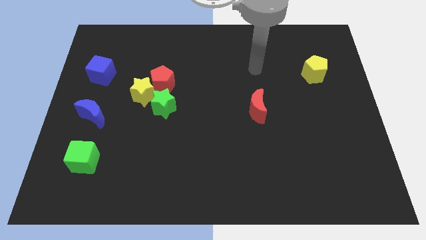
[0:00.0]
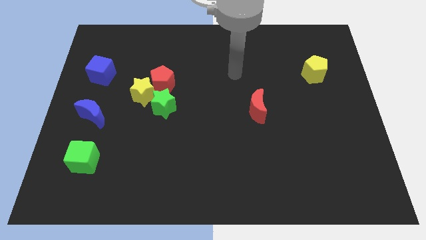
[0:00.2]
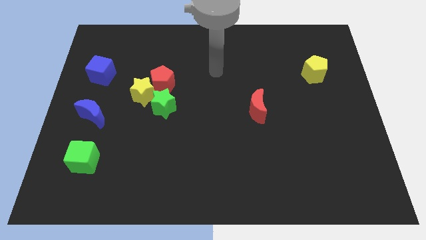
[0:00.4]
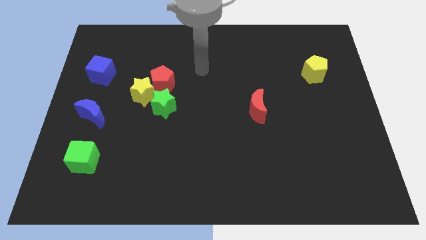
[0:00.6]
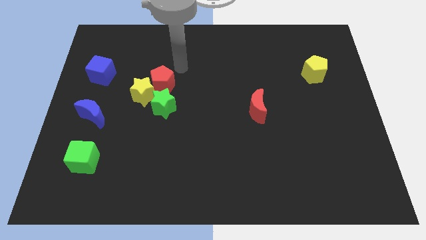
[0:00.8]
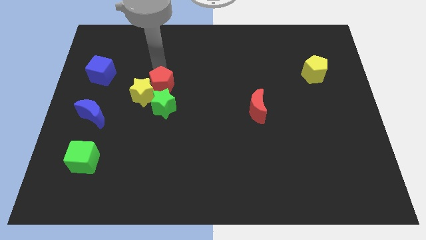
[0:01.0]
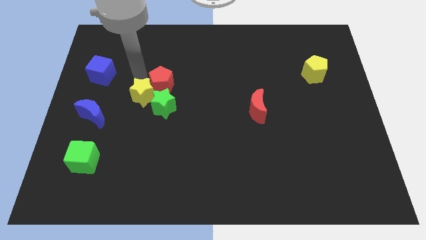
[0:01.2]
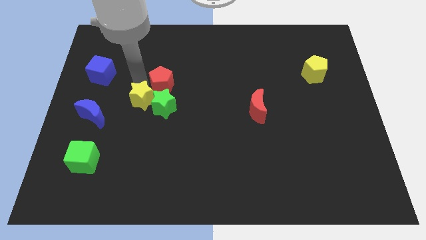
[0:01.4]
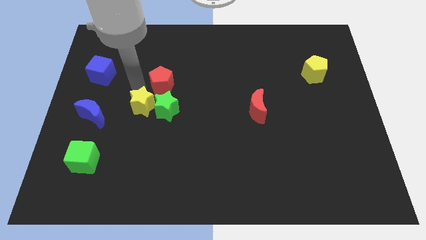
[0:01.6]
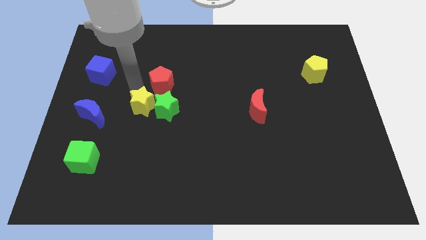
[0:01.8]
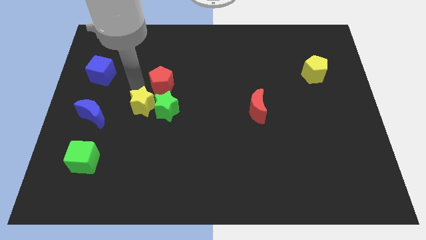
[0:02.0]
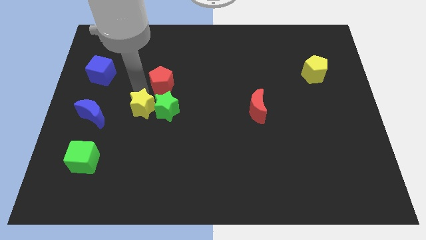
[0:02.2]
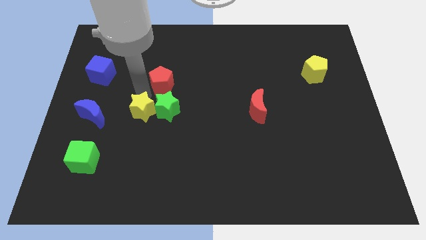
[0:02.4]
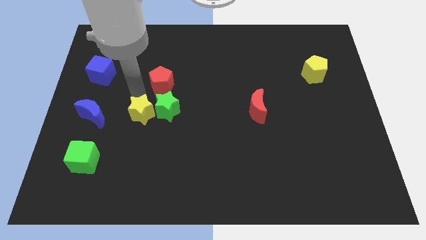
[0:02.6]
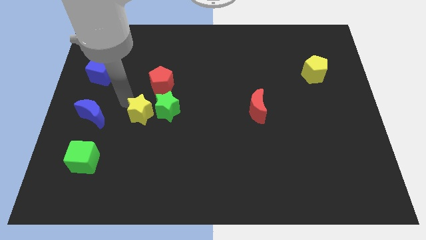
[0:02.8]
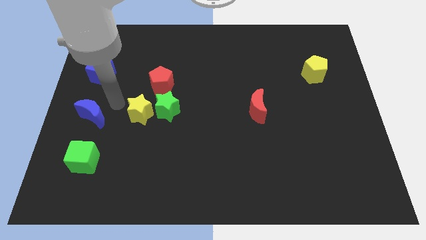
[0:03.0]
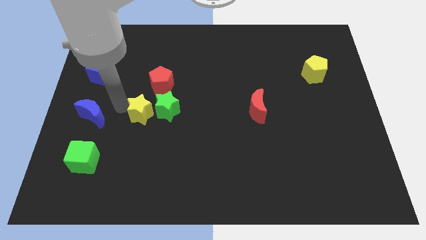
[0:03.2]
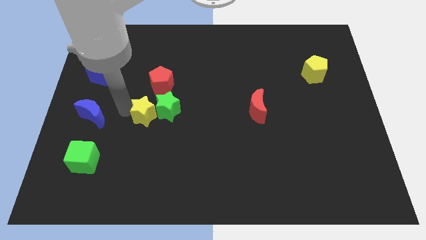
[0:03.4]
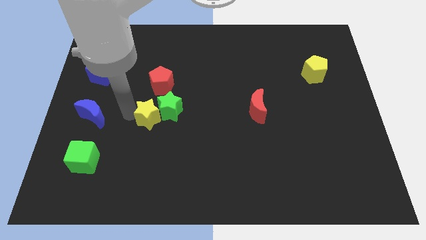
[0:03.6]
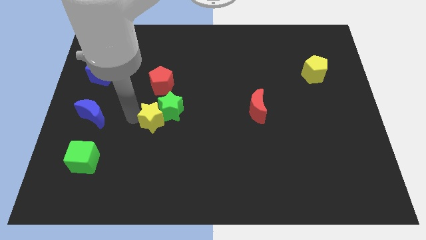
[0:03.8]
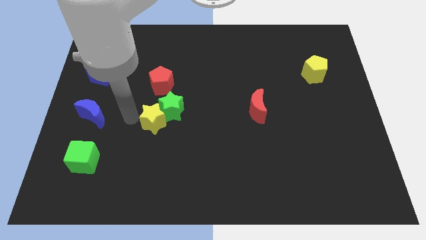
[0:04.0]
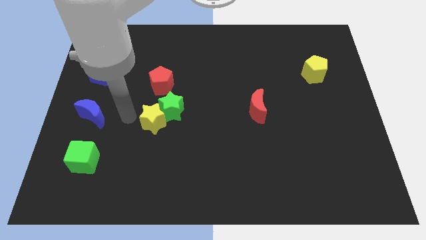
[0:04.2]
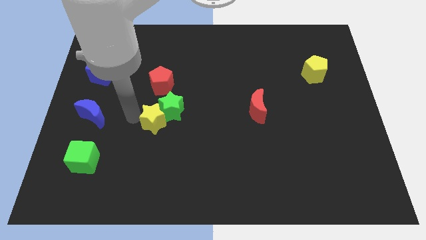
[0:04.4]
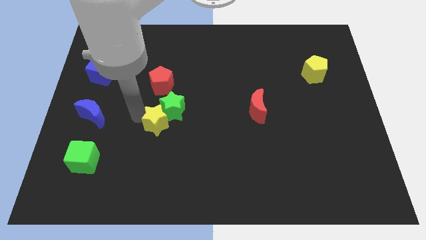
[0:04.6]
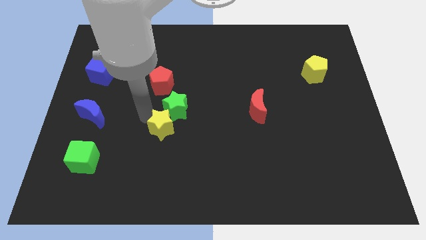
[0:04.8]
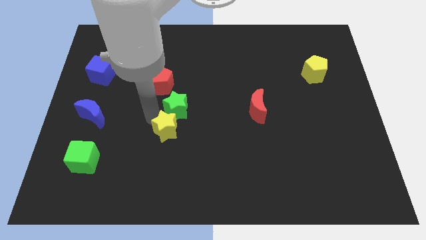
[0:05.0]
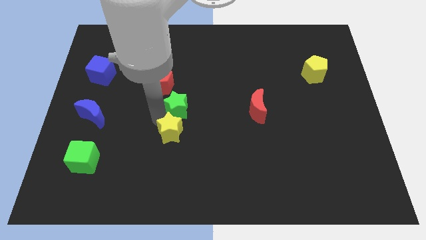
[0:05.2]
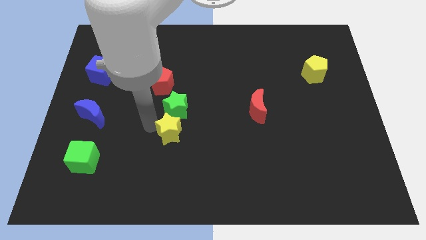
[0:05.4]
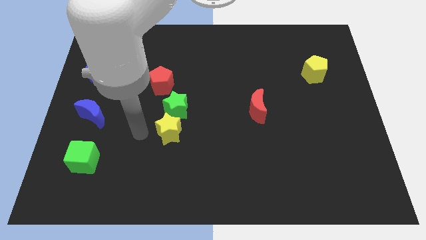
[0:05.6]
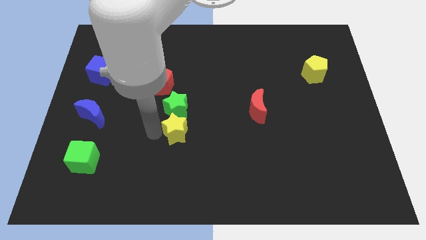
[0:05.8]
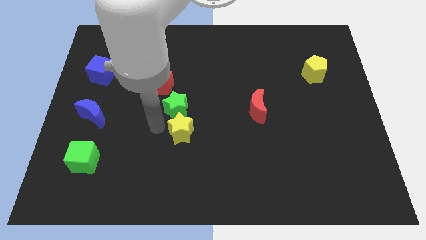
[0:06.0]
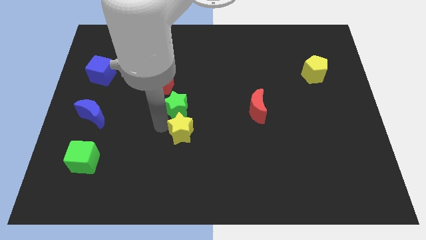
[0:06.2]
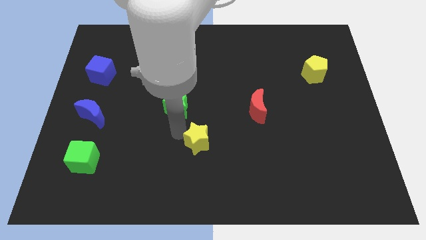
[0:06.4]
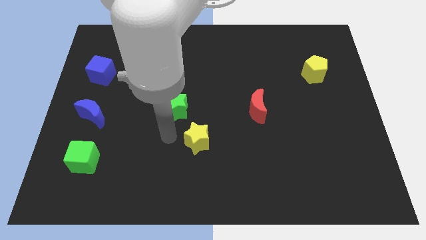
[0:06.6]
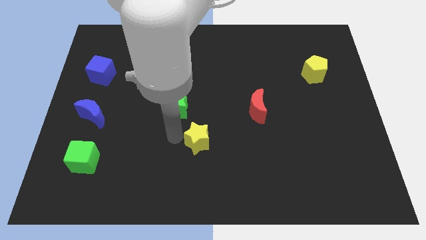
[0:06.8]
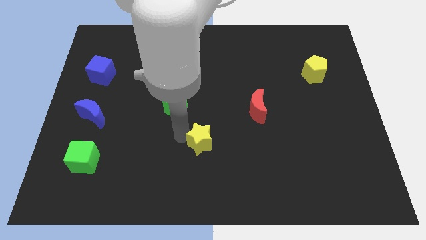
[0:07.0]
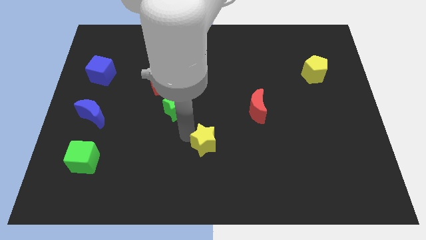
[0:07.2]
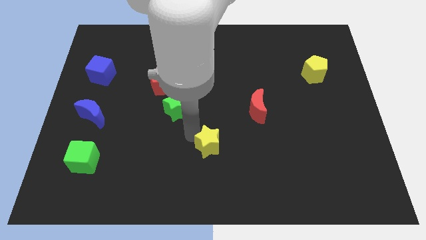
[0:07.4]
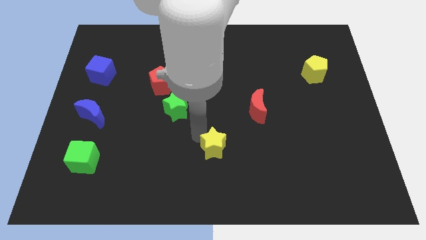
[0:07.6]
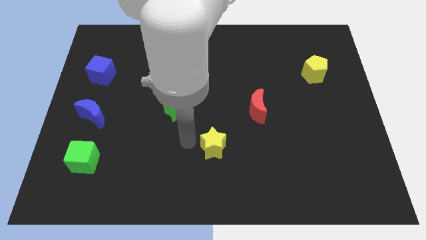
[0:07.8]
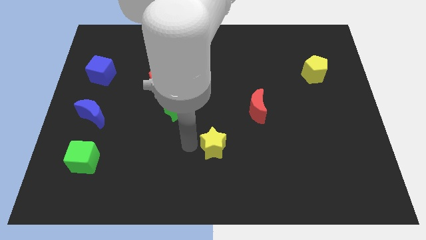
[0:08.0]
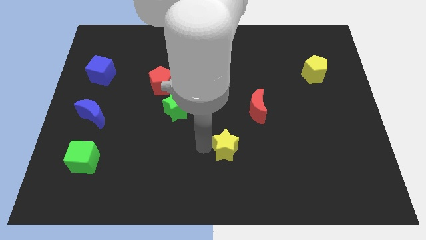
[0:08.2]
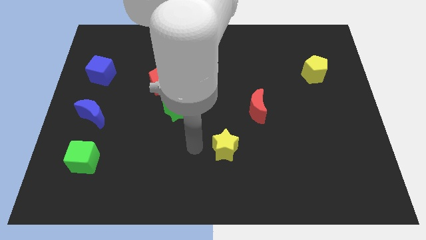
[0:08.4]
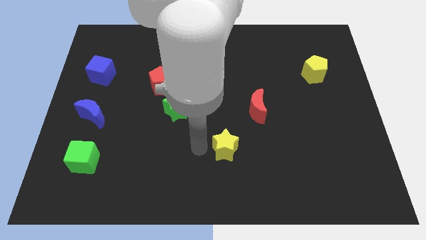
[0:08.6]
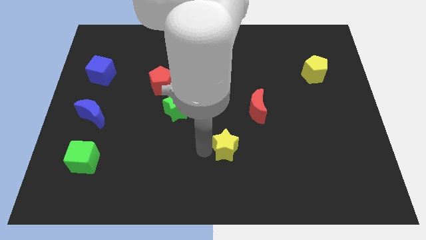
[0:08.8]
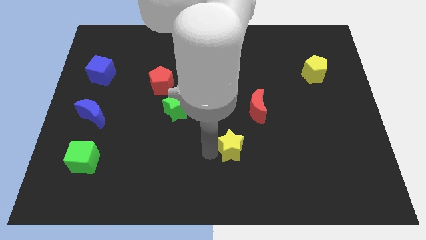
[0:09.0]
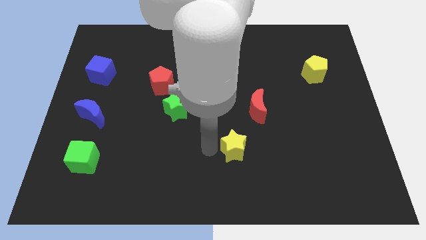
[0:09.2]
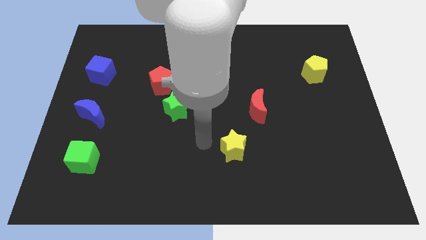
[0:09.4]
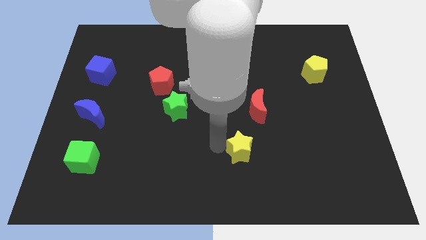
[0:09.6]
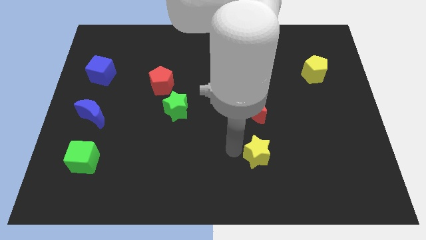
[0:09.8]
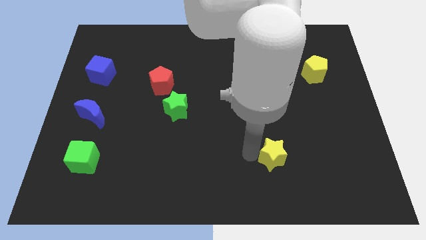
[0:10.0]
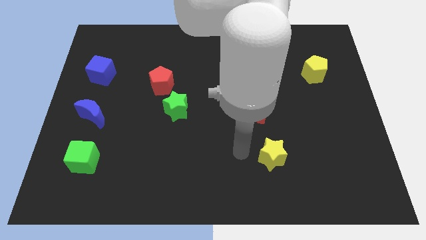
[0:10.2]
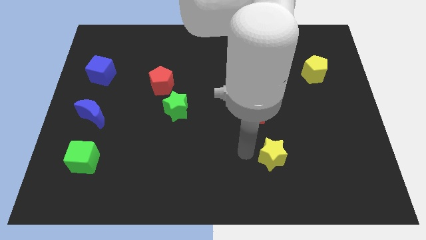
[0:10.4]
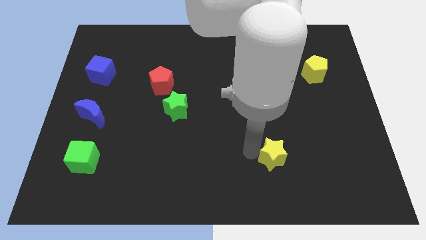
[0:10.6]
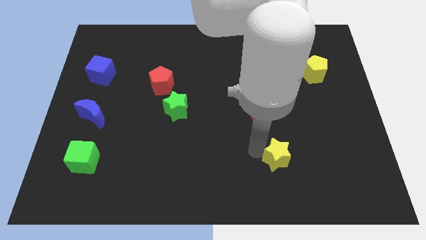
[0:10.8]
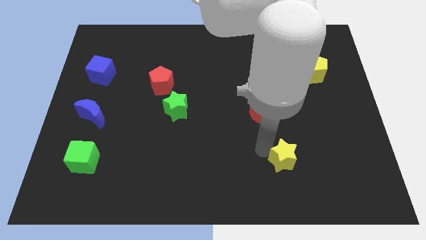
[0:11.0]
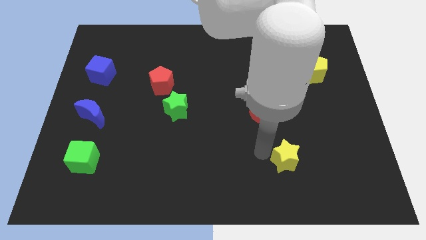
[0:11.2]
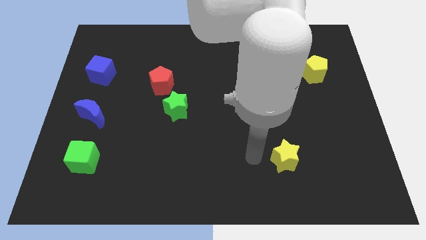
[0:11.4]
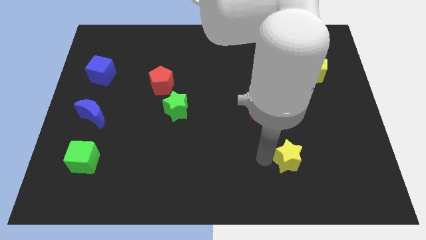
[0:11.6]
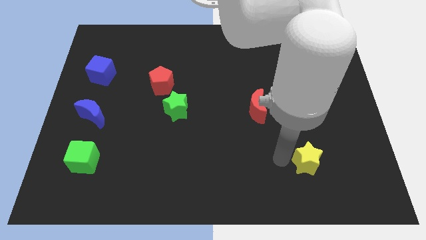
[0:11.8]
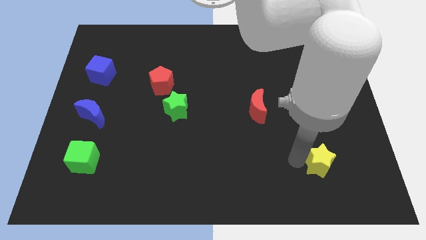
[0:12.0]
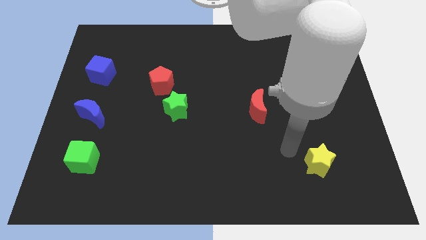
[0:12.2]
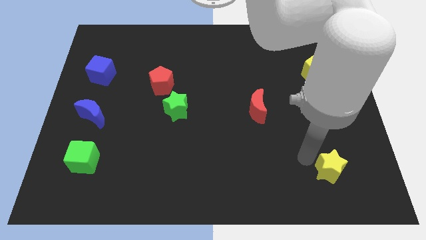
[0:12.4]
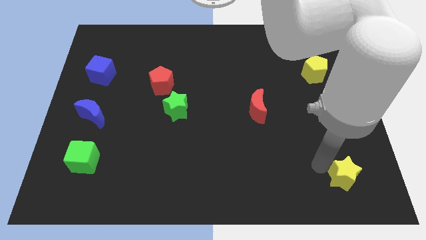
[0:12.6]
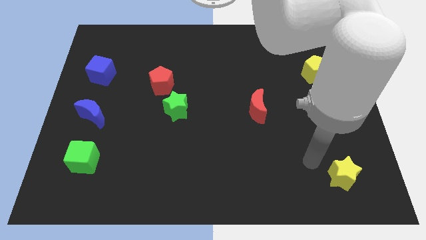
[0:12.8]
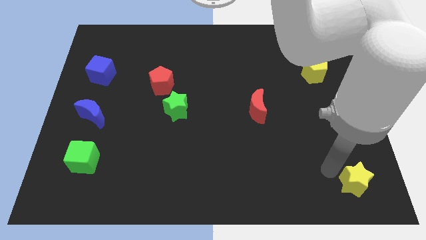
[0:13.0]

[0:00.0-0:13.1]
move the yellow star to the bottom right of the board
